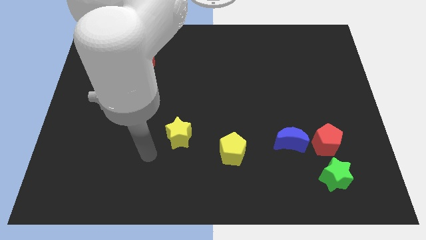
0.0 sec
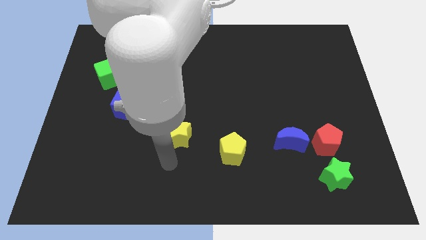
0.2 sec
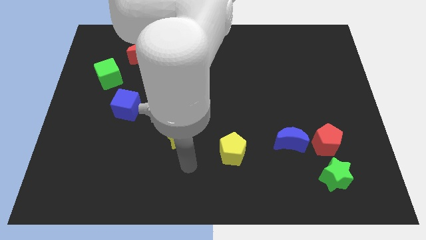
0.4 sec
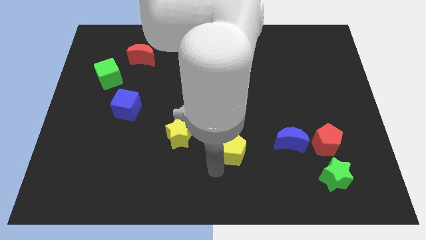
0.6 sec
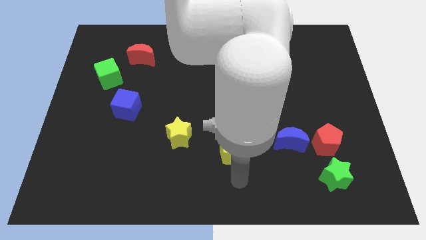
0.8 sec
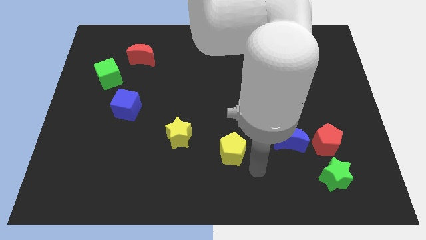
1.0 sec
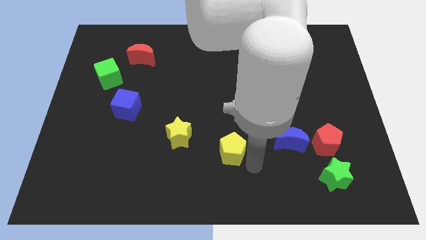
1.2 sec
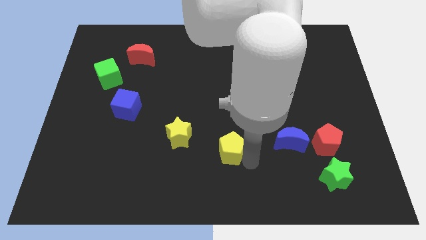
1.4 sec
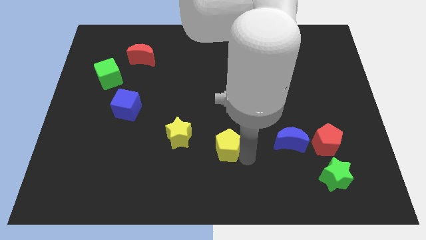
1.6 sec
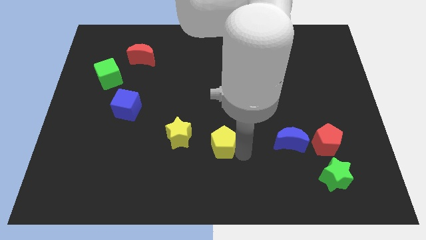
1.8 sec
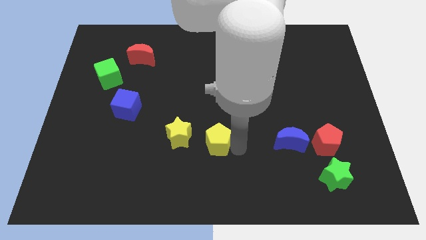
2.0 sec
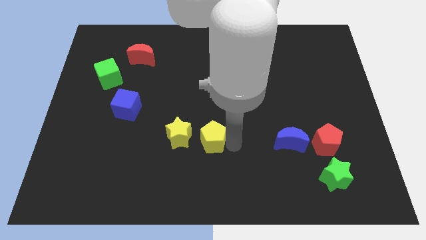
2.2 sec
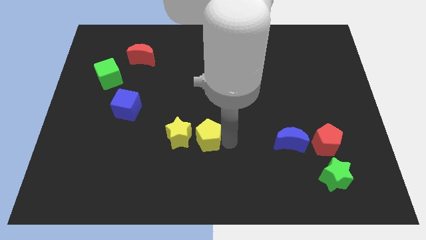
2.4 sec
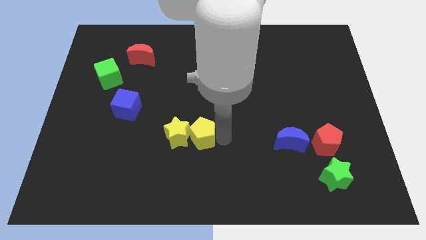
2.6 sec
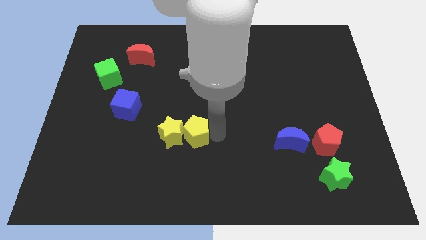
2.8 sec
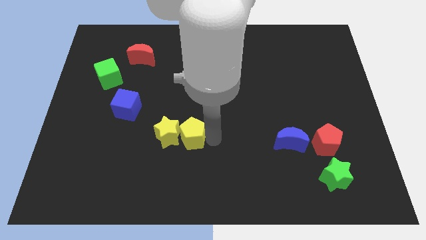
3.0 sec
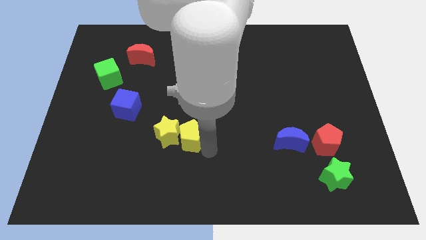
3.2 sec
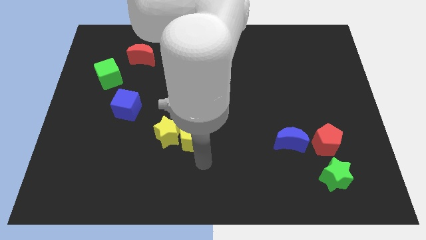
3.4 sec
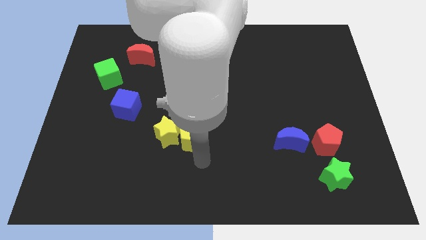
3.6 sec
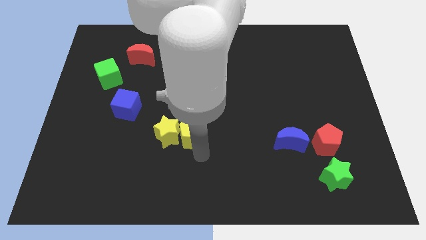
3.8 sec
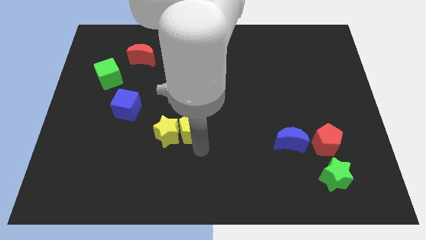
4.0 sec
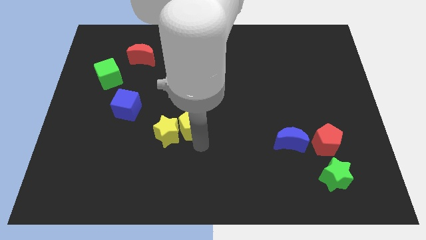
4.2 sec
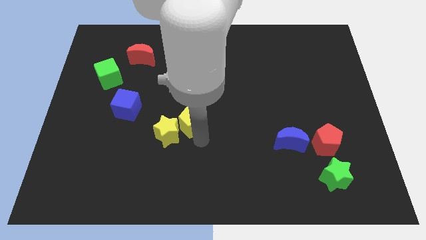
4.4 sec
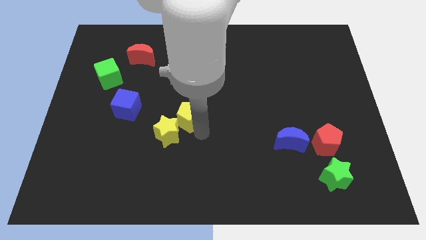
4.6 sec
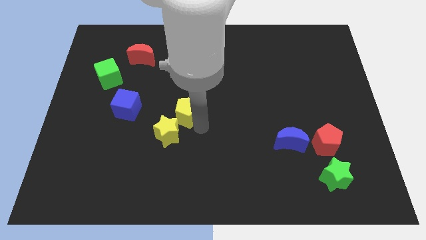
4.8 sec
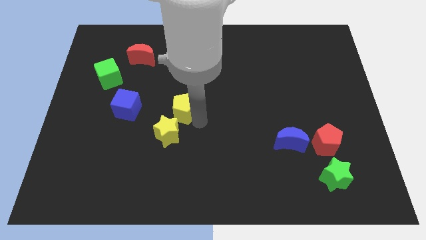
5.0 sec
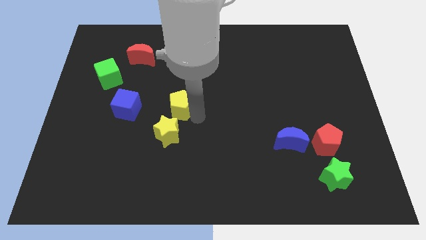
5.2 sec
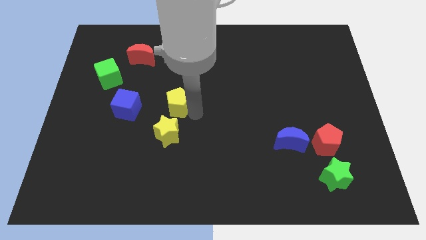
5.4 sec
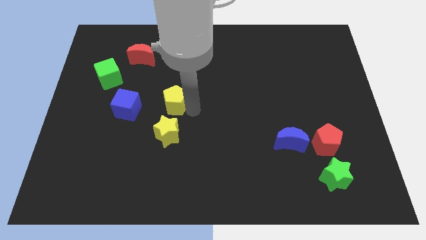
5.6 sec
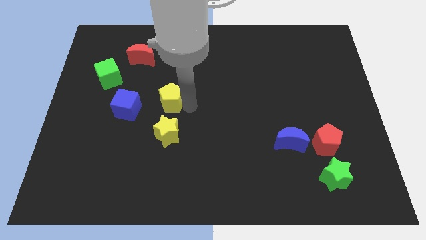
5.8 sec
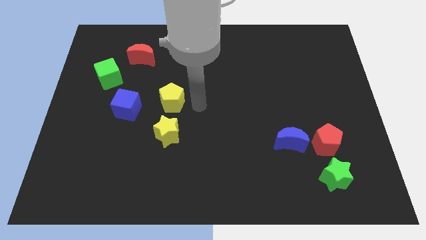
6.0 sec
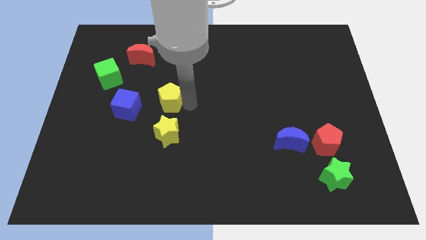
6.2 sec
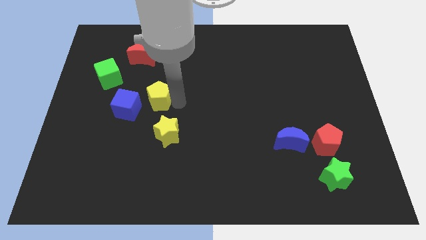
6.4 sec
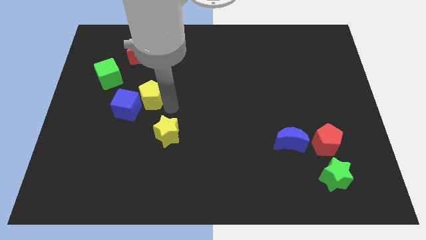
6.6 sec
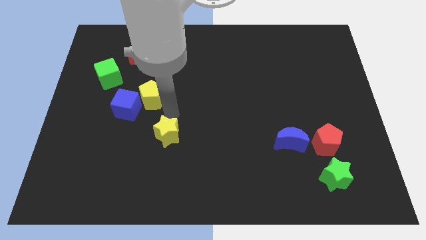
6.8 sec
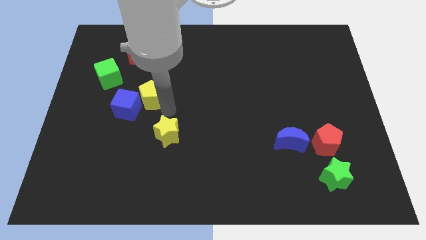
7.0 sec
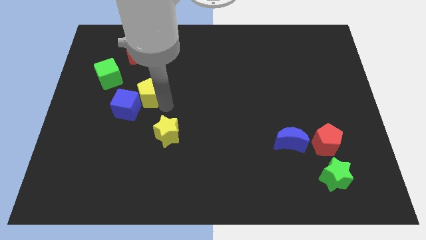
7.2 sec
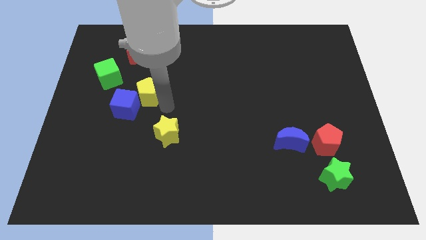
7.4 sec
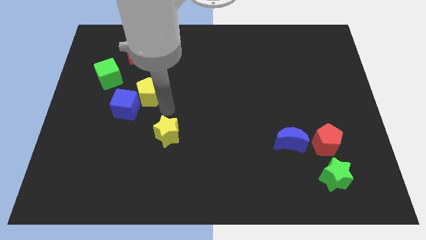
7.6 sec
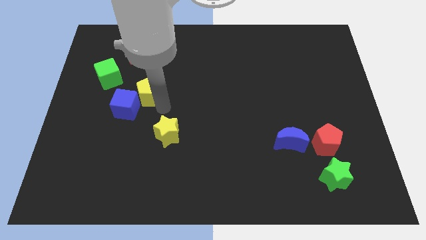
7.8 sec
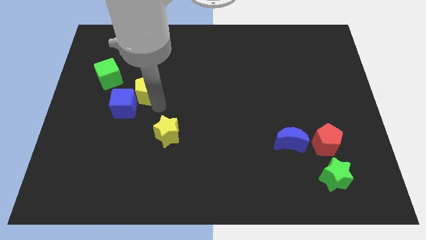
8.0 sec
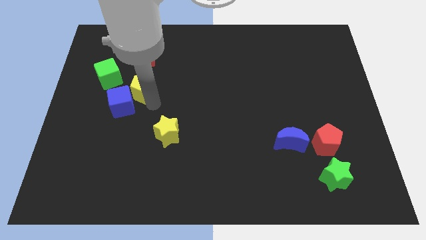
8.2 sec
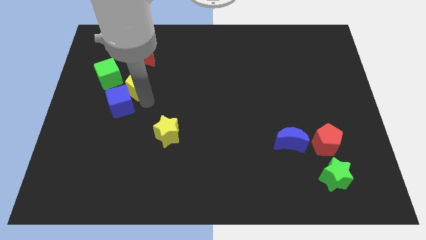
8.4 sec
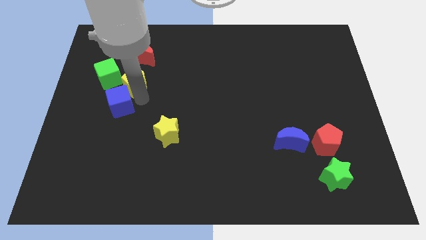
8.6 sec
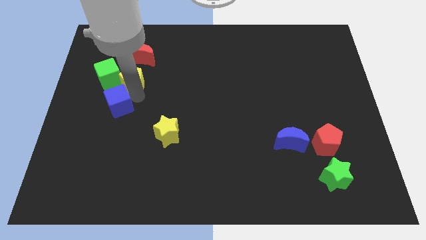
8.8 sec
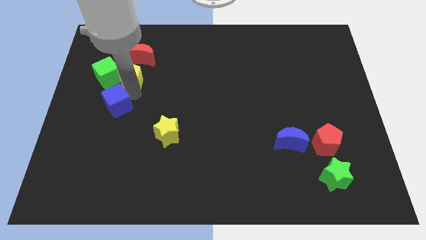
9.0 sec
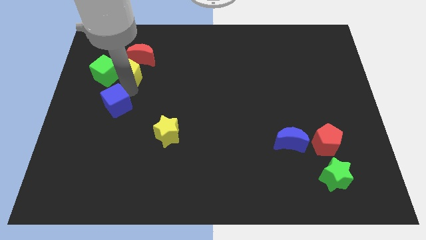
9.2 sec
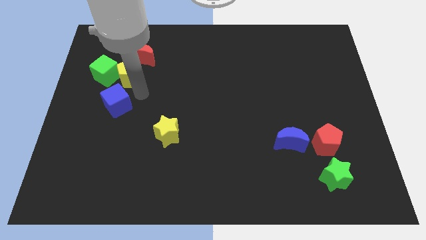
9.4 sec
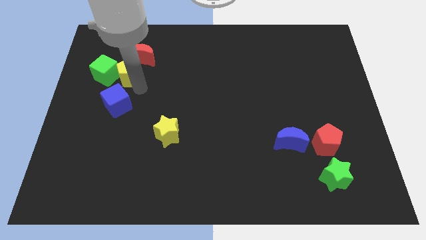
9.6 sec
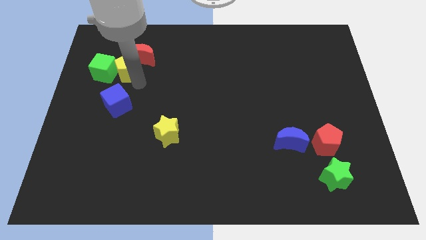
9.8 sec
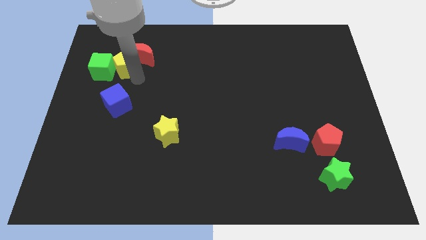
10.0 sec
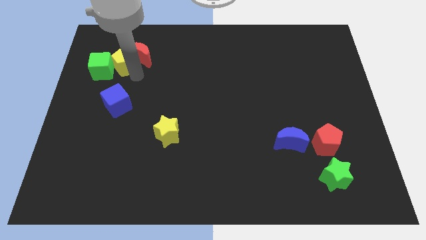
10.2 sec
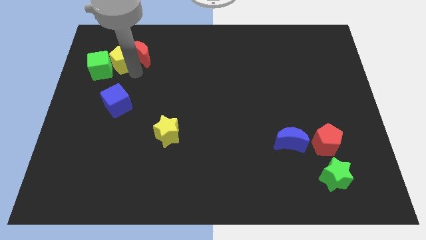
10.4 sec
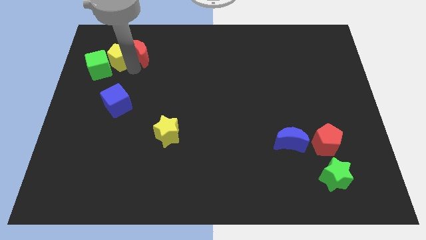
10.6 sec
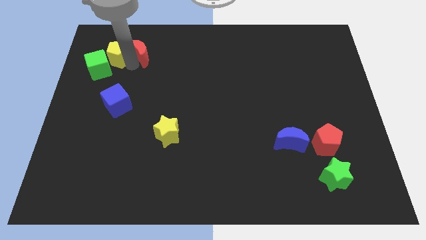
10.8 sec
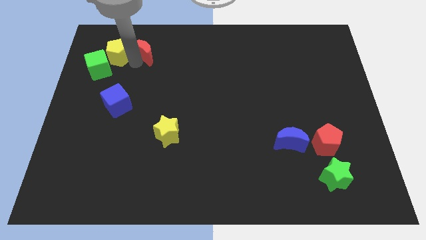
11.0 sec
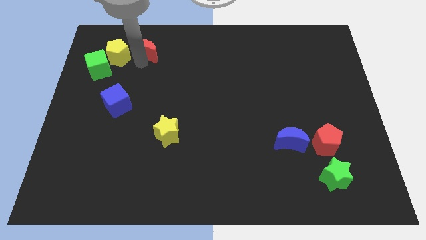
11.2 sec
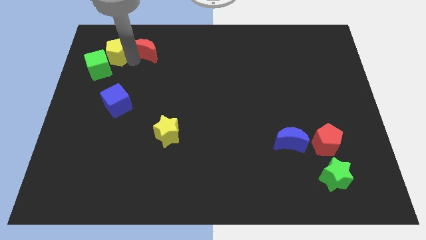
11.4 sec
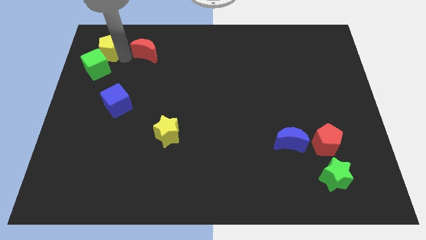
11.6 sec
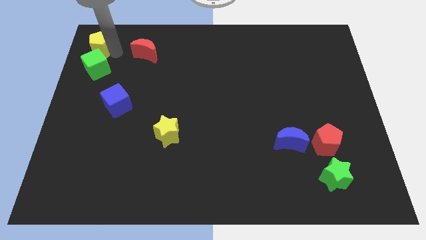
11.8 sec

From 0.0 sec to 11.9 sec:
slide the yellow pentagon to the top left
